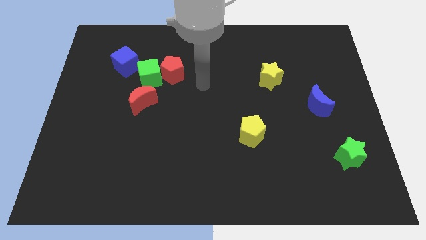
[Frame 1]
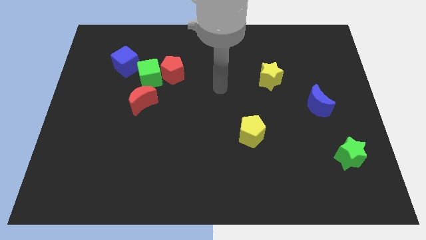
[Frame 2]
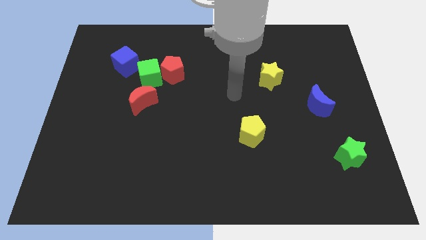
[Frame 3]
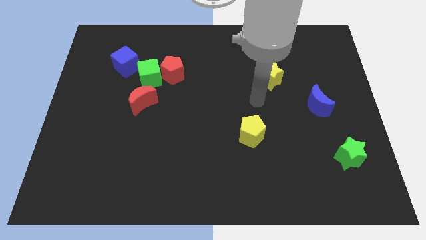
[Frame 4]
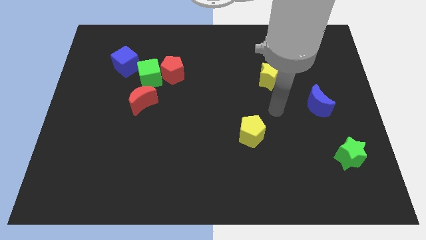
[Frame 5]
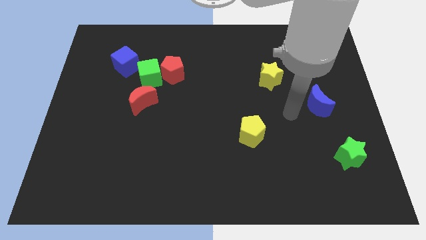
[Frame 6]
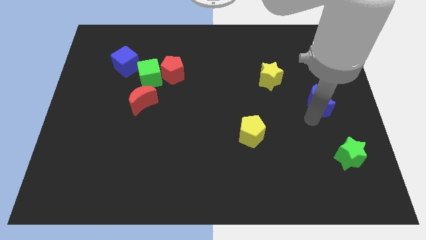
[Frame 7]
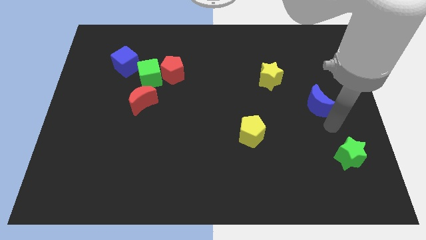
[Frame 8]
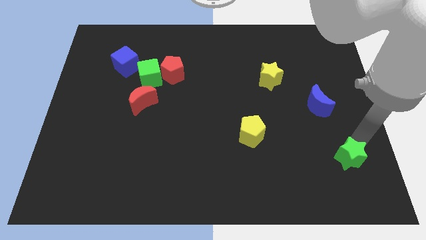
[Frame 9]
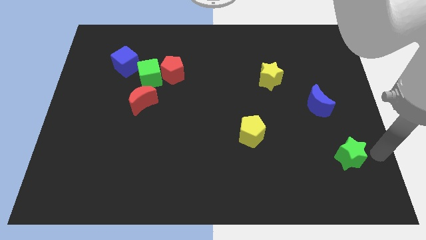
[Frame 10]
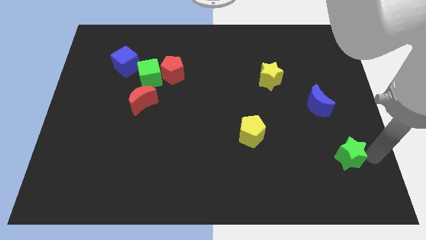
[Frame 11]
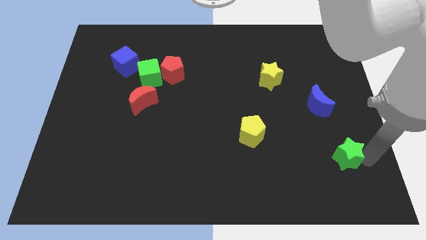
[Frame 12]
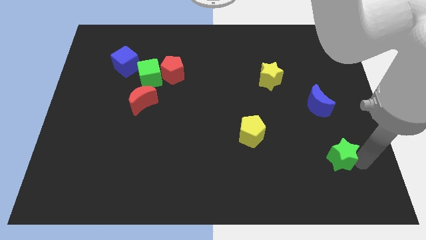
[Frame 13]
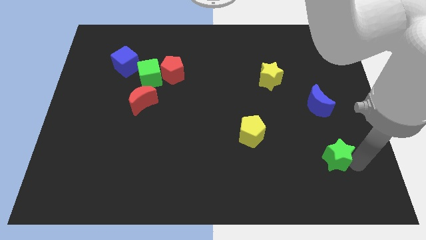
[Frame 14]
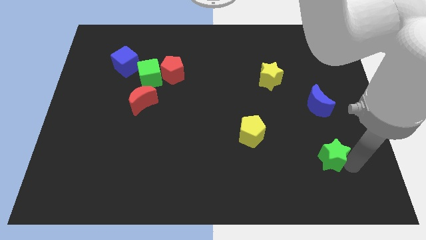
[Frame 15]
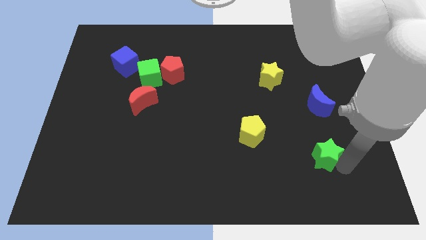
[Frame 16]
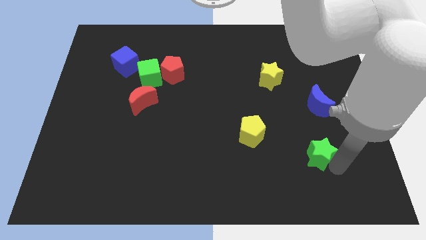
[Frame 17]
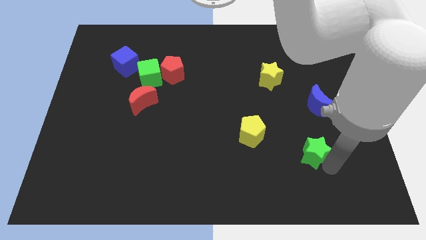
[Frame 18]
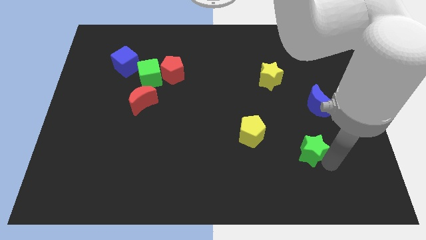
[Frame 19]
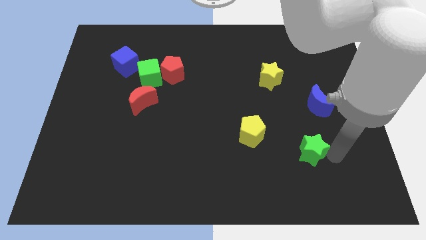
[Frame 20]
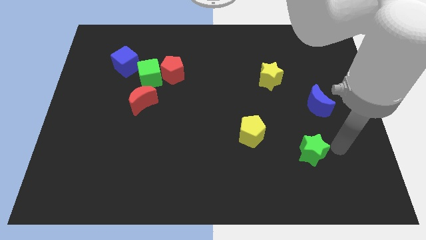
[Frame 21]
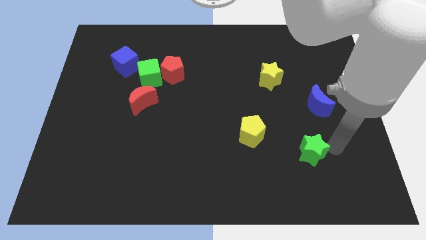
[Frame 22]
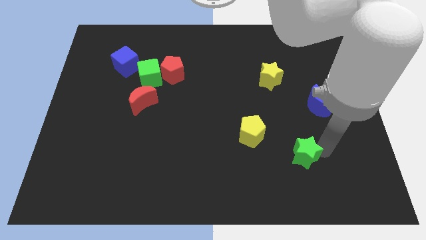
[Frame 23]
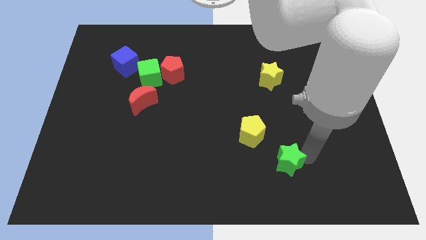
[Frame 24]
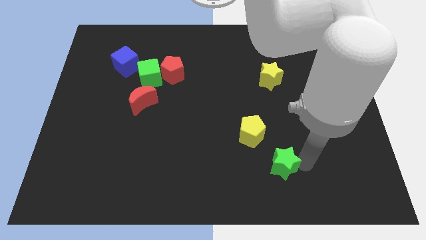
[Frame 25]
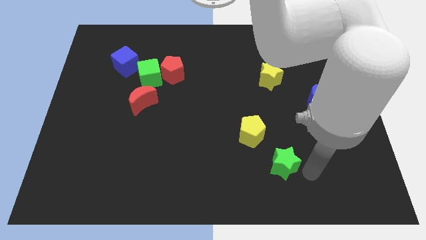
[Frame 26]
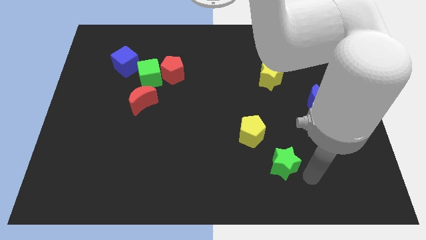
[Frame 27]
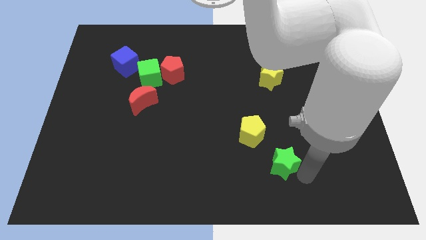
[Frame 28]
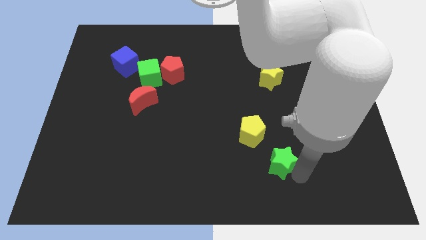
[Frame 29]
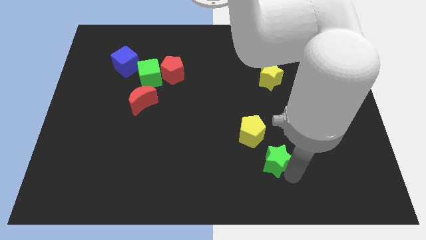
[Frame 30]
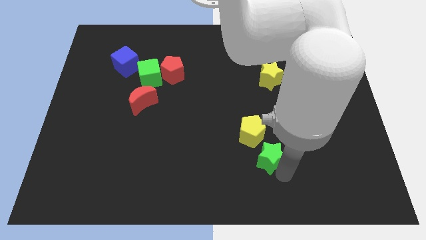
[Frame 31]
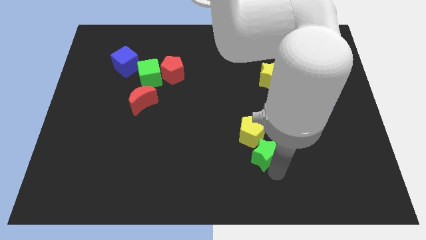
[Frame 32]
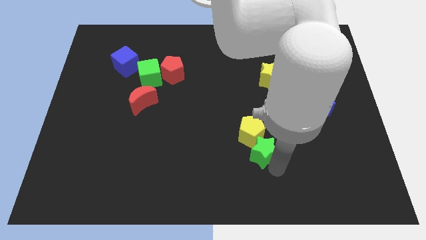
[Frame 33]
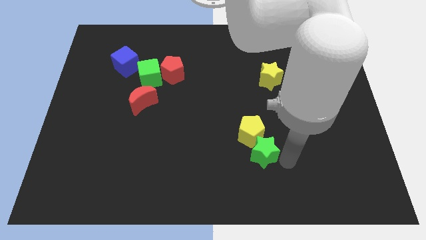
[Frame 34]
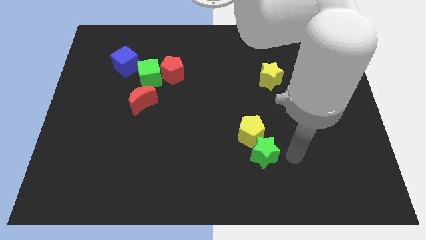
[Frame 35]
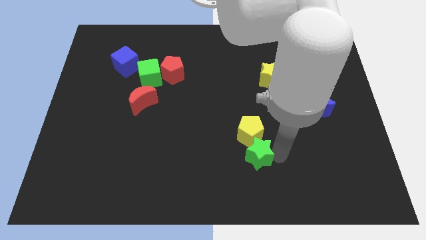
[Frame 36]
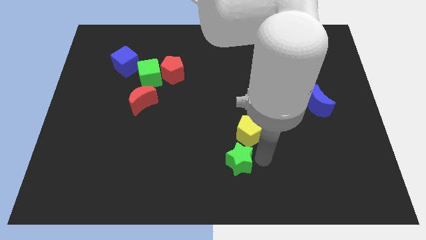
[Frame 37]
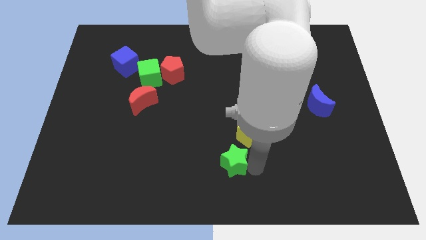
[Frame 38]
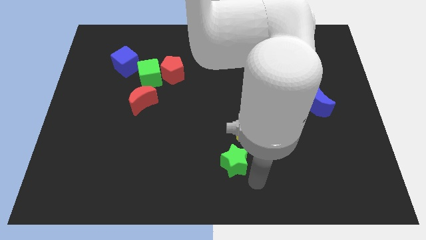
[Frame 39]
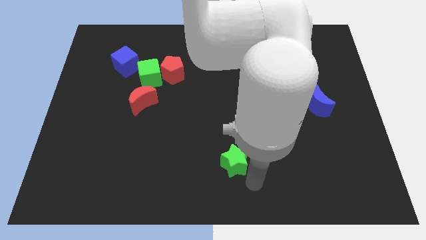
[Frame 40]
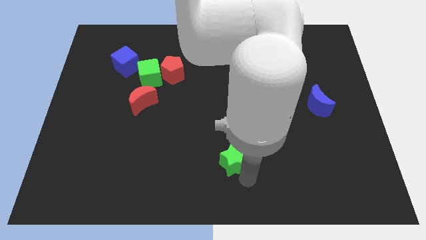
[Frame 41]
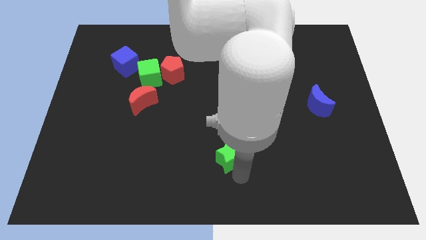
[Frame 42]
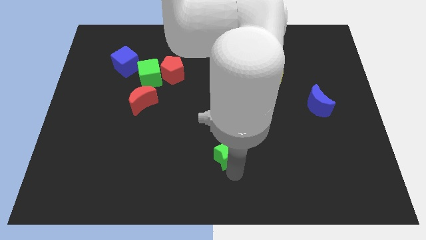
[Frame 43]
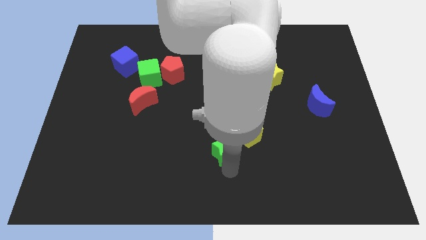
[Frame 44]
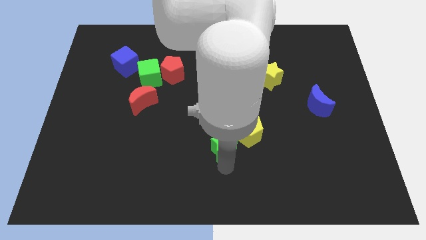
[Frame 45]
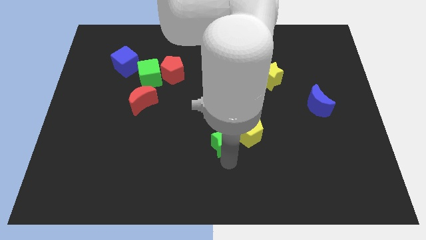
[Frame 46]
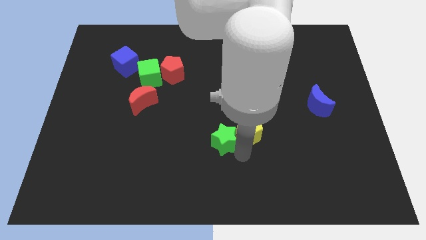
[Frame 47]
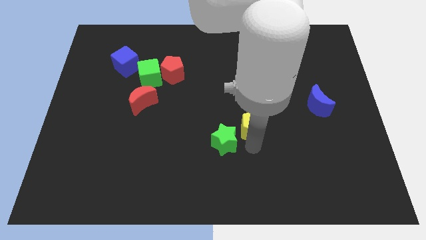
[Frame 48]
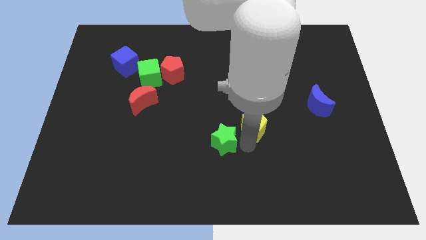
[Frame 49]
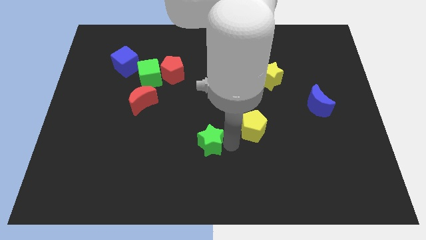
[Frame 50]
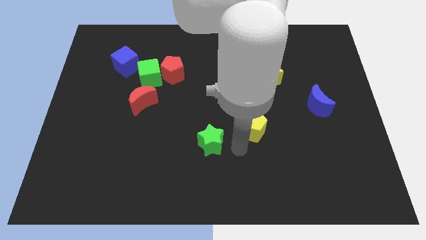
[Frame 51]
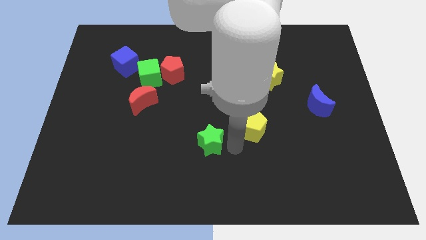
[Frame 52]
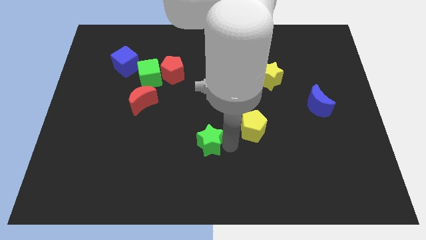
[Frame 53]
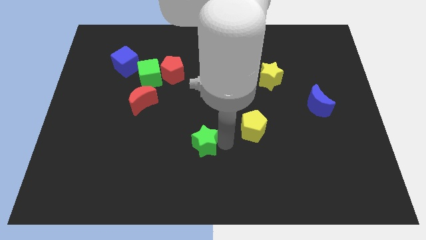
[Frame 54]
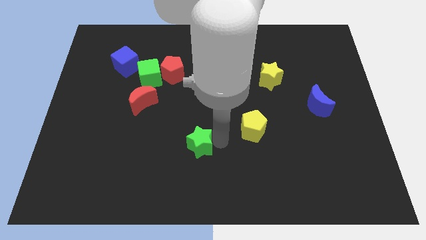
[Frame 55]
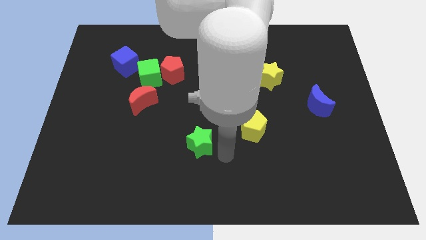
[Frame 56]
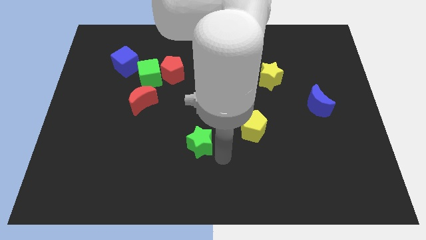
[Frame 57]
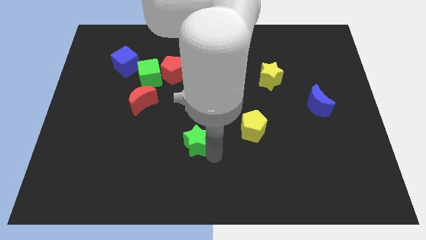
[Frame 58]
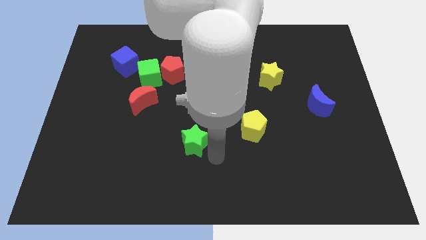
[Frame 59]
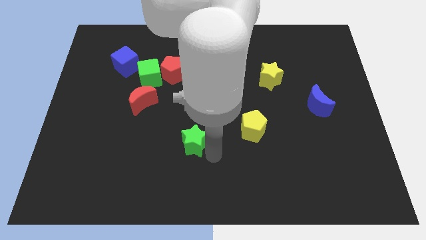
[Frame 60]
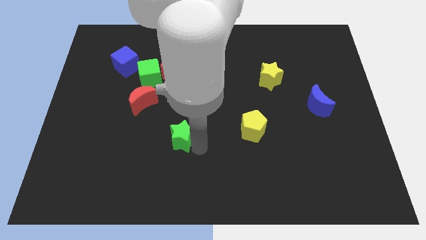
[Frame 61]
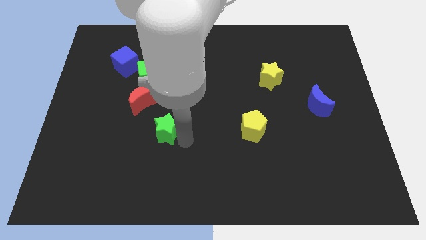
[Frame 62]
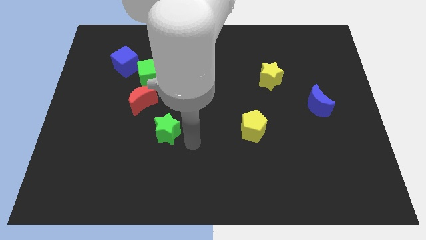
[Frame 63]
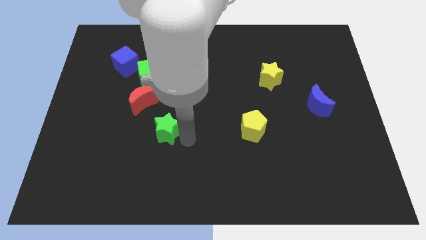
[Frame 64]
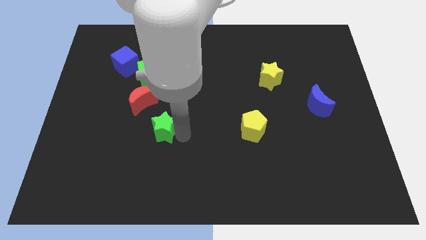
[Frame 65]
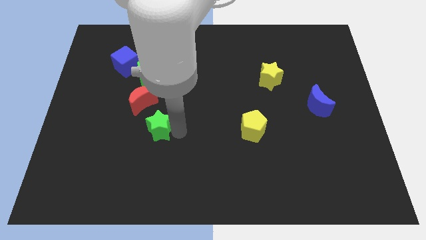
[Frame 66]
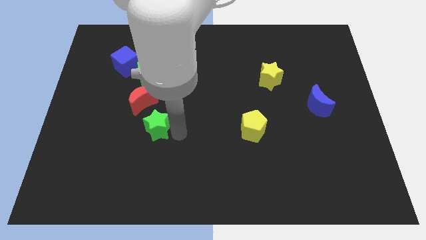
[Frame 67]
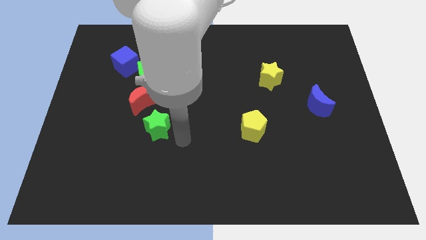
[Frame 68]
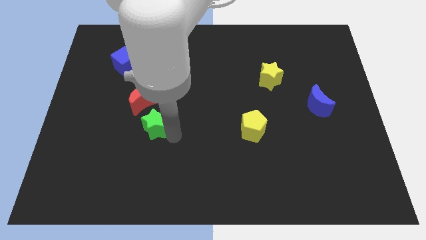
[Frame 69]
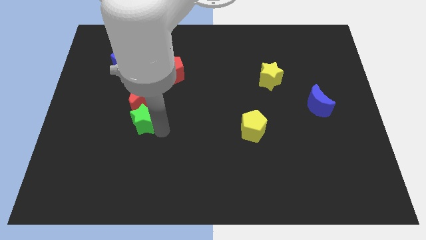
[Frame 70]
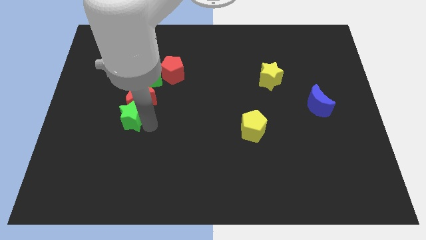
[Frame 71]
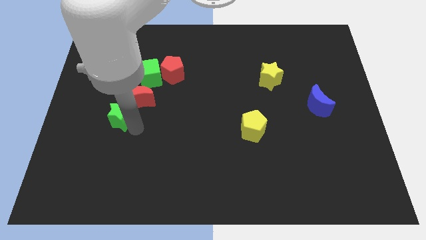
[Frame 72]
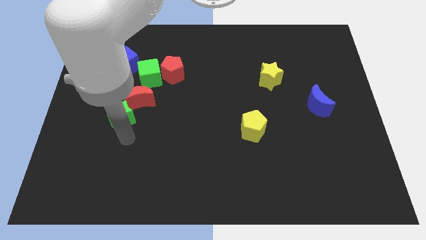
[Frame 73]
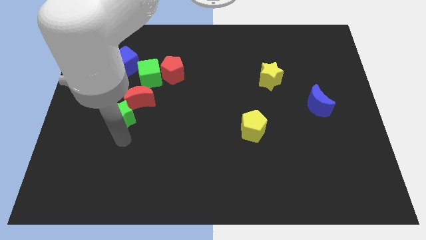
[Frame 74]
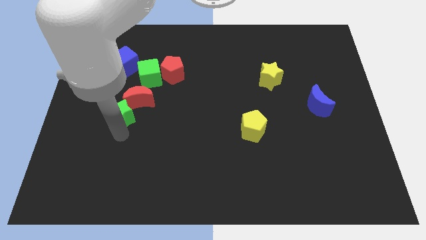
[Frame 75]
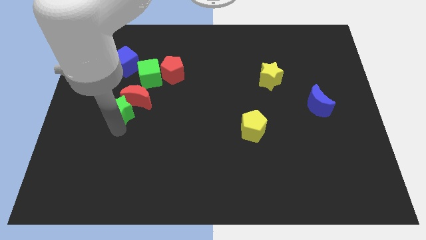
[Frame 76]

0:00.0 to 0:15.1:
slide the green star below the blue cube
